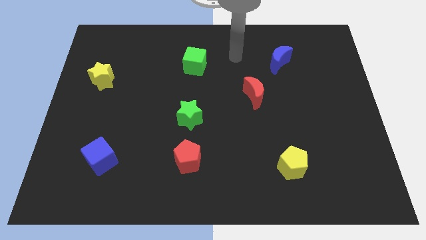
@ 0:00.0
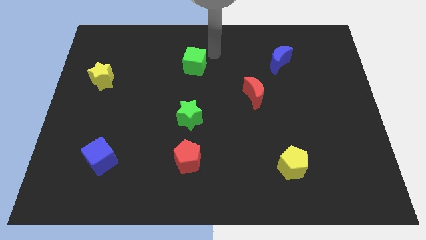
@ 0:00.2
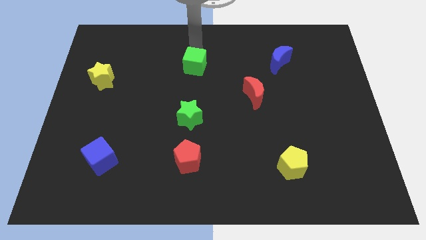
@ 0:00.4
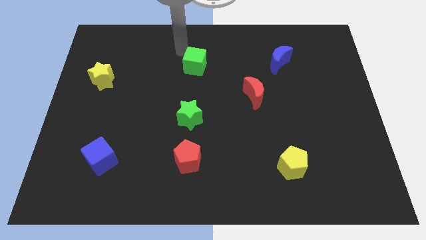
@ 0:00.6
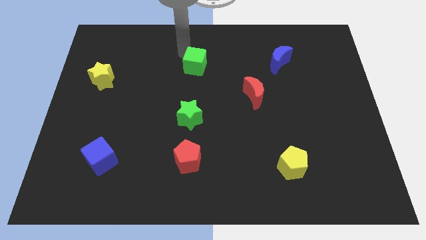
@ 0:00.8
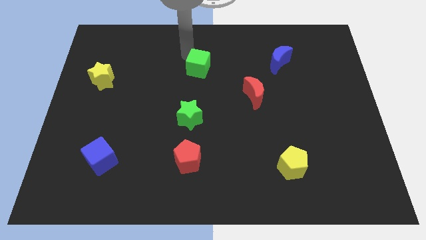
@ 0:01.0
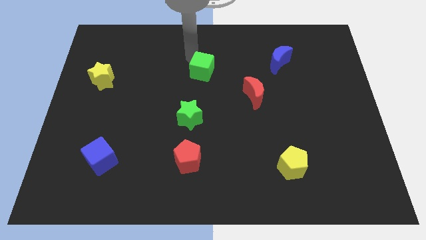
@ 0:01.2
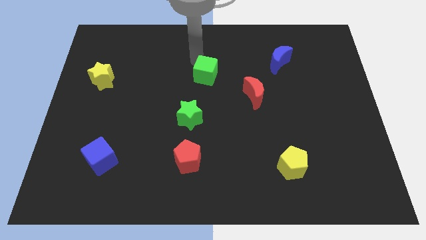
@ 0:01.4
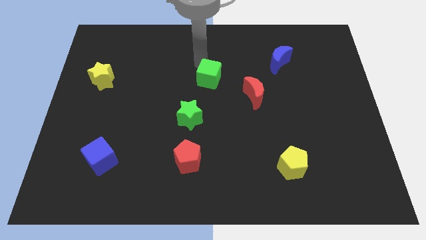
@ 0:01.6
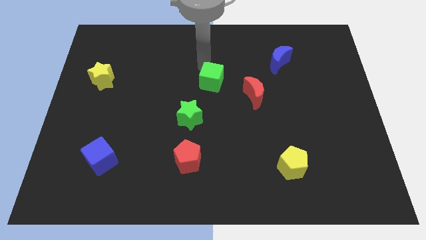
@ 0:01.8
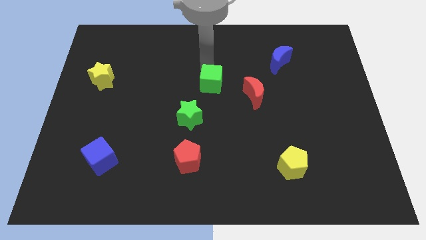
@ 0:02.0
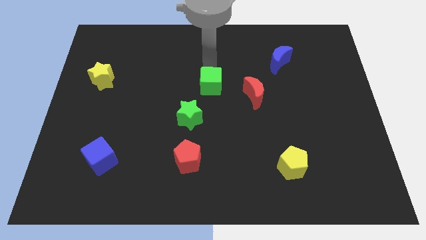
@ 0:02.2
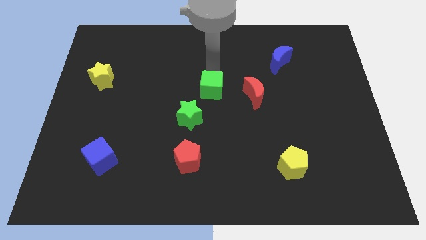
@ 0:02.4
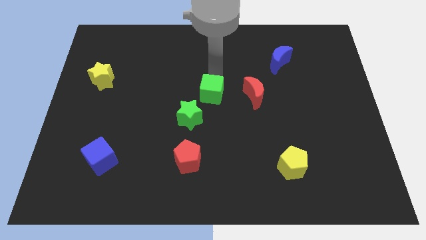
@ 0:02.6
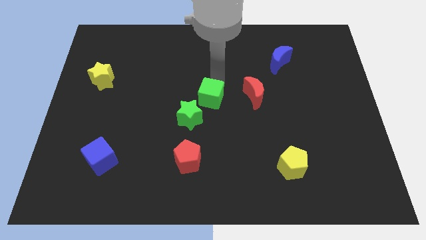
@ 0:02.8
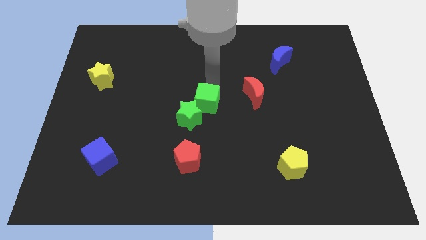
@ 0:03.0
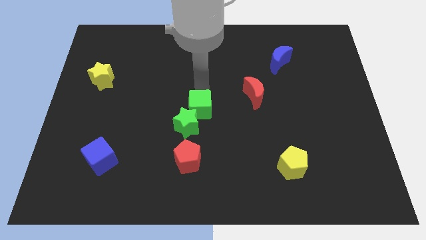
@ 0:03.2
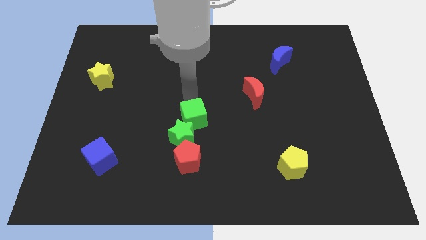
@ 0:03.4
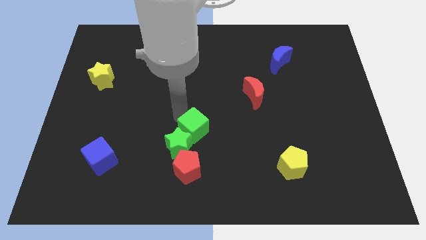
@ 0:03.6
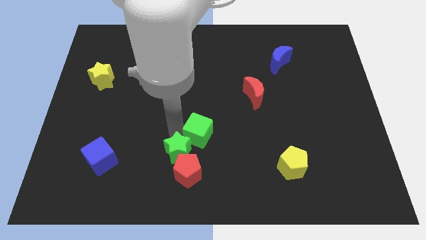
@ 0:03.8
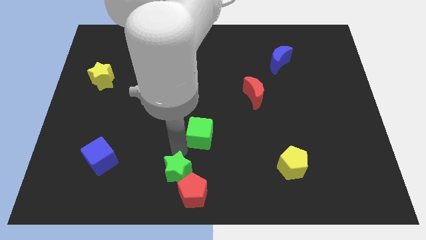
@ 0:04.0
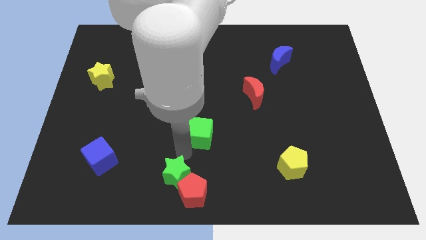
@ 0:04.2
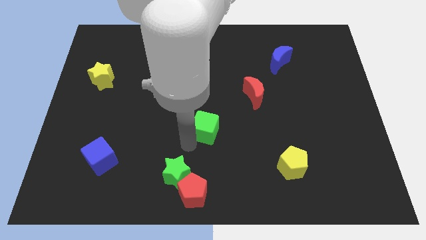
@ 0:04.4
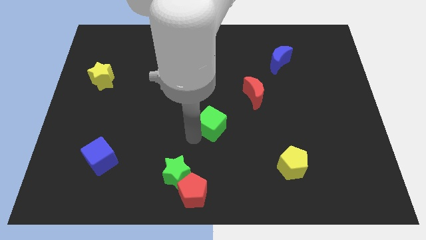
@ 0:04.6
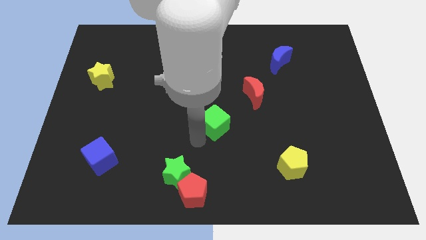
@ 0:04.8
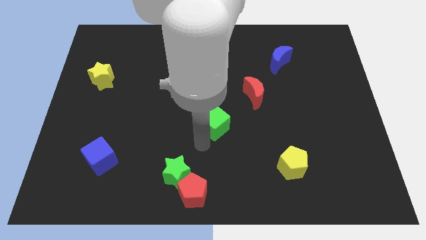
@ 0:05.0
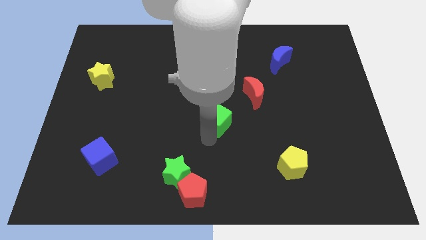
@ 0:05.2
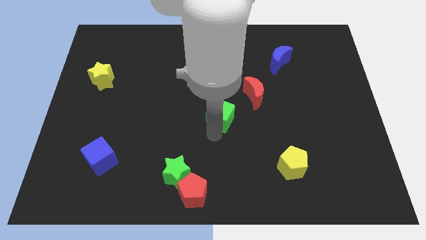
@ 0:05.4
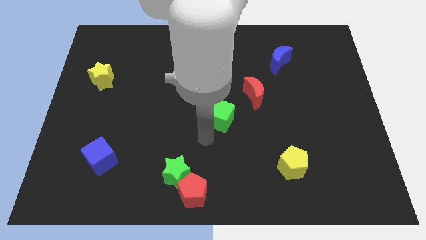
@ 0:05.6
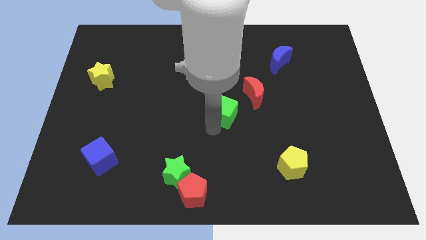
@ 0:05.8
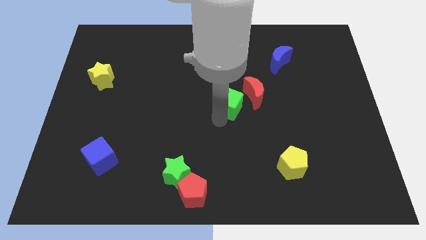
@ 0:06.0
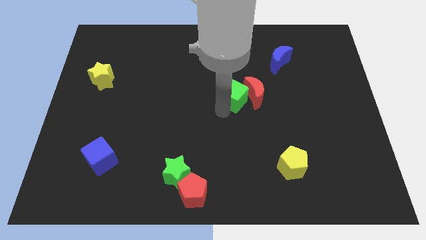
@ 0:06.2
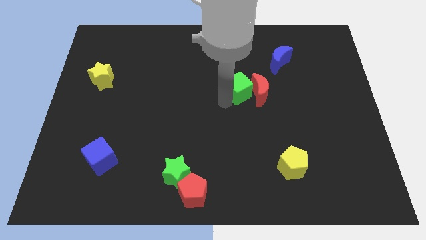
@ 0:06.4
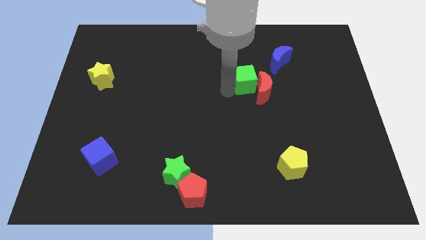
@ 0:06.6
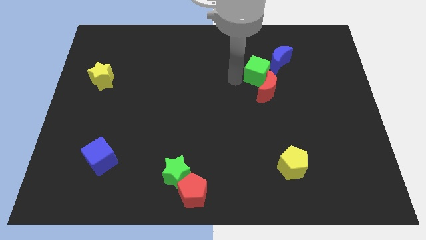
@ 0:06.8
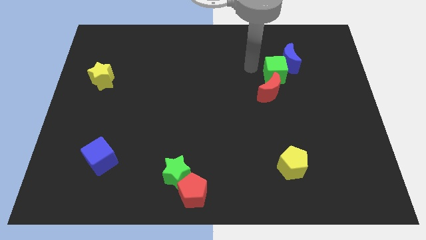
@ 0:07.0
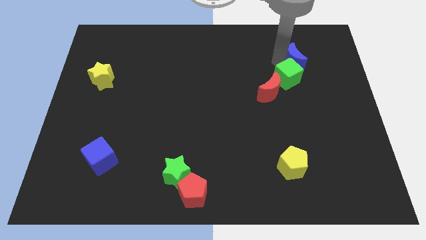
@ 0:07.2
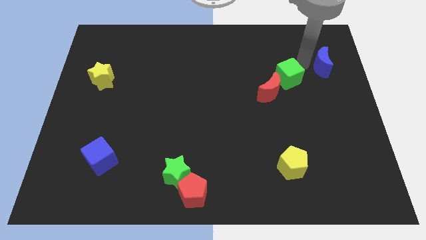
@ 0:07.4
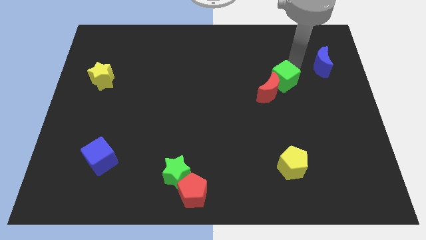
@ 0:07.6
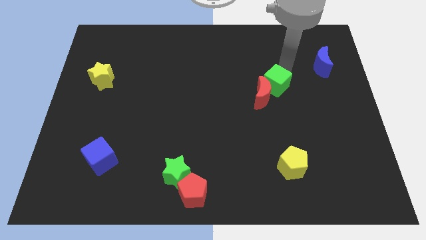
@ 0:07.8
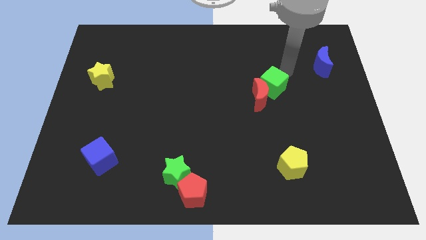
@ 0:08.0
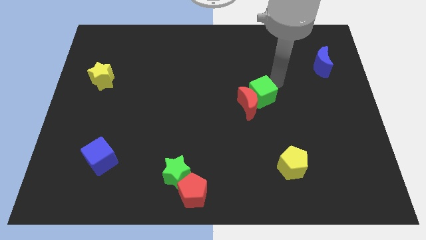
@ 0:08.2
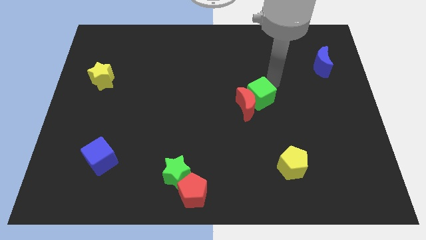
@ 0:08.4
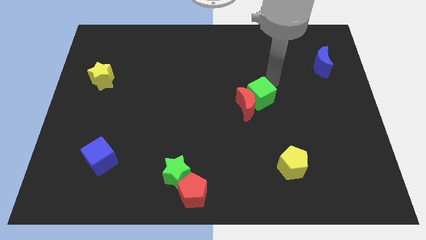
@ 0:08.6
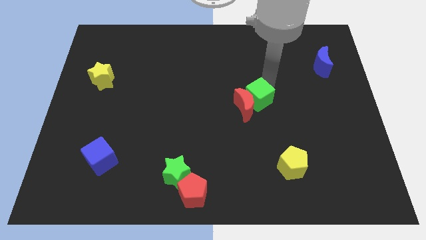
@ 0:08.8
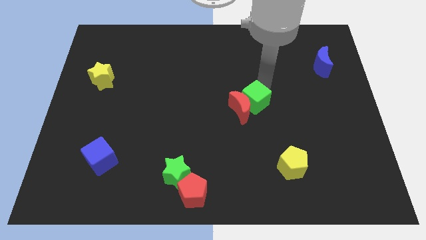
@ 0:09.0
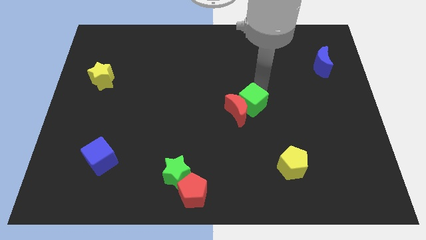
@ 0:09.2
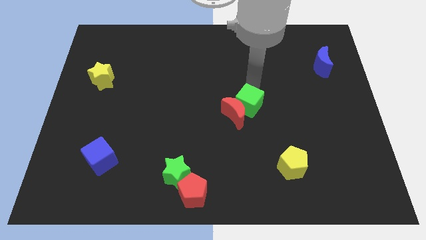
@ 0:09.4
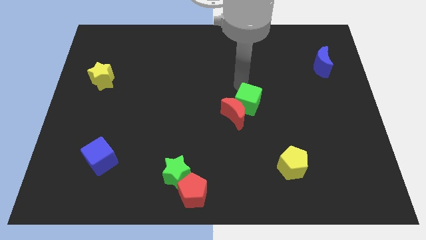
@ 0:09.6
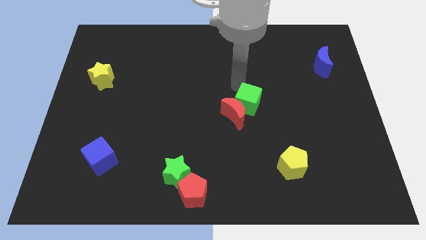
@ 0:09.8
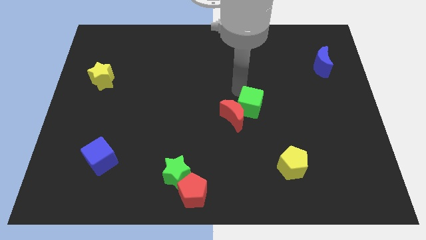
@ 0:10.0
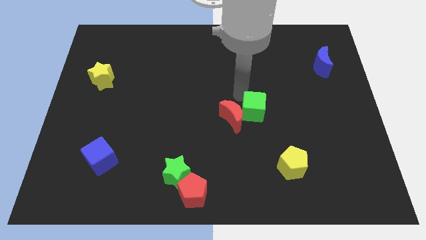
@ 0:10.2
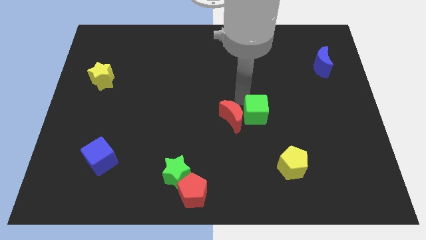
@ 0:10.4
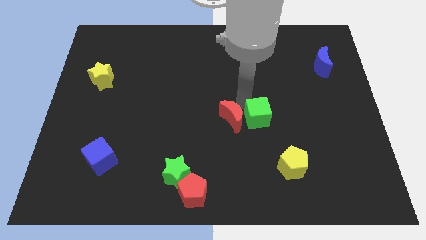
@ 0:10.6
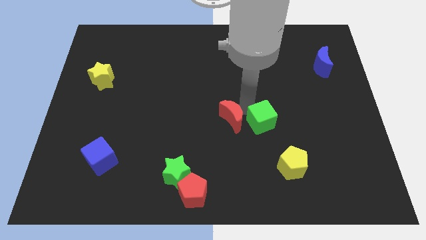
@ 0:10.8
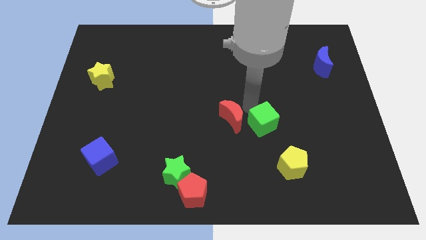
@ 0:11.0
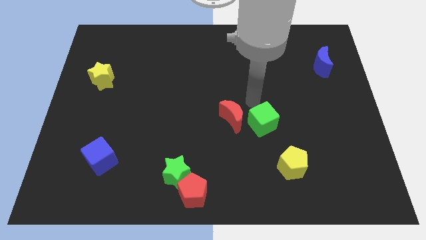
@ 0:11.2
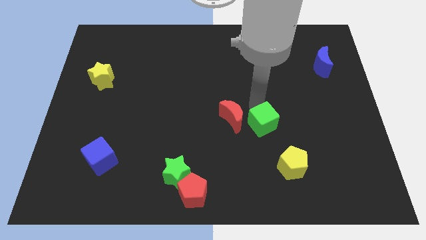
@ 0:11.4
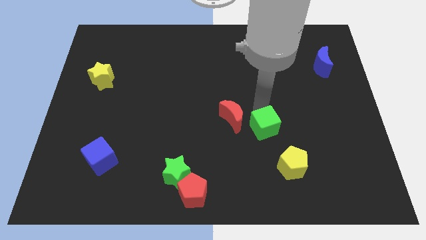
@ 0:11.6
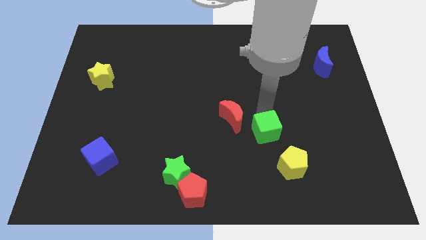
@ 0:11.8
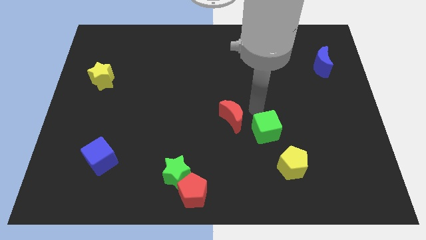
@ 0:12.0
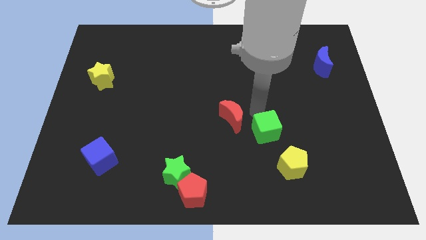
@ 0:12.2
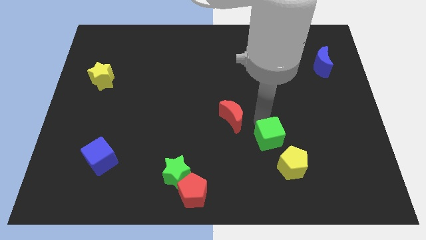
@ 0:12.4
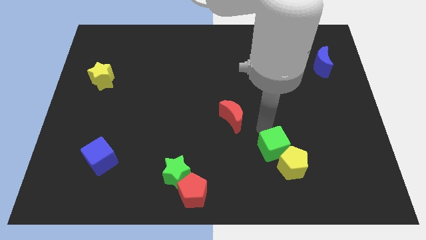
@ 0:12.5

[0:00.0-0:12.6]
move the green cube to the yellow pentagon

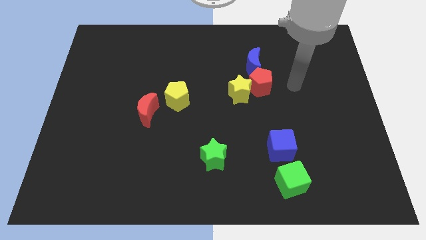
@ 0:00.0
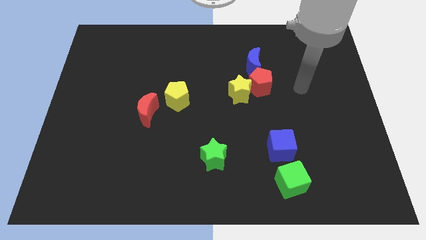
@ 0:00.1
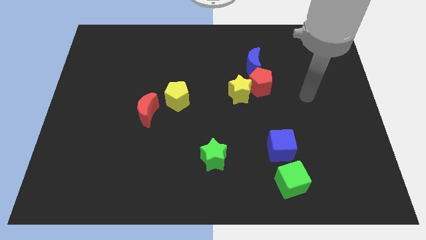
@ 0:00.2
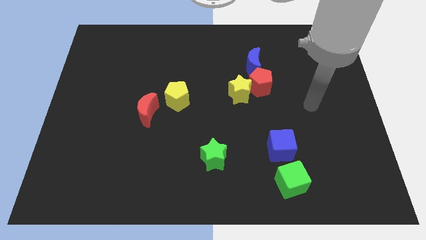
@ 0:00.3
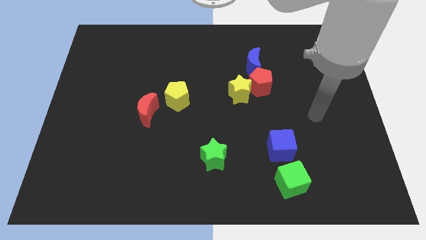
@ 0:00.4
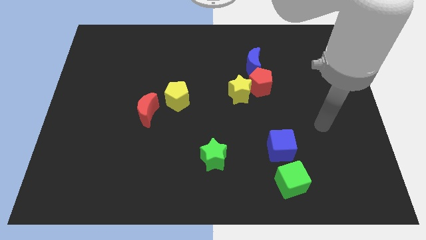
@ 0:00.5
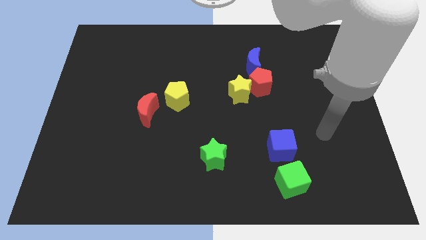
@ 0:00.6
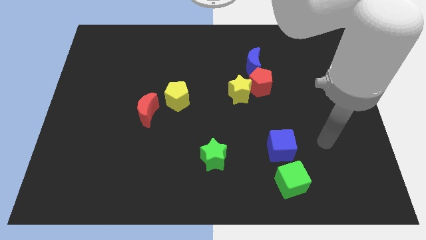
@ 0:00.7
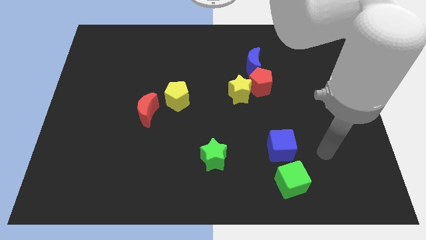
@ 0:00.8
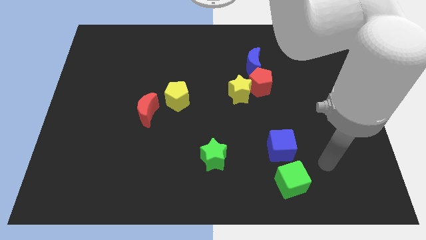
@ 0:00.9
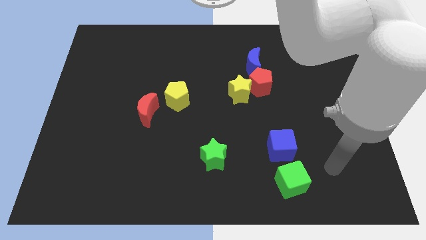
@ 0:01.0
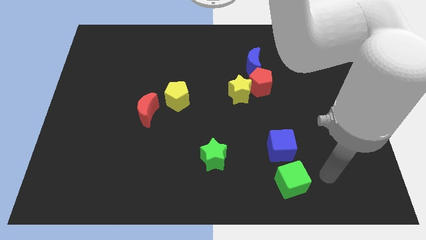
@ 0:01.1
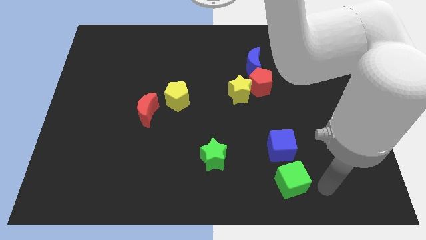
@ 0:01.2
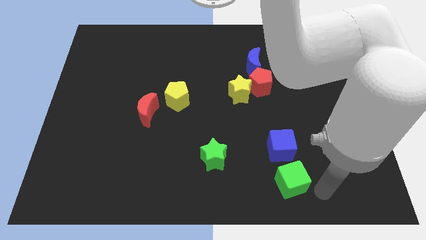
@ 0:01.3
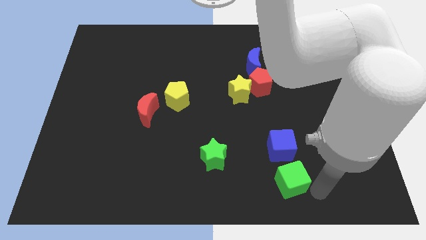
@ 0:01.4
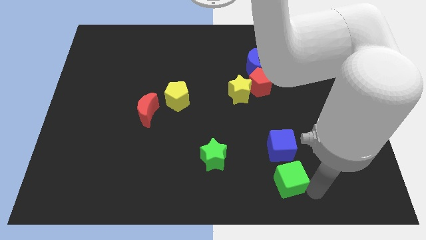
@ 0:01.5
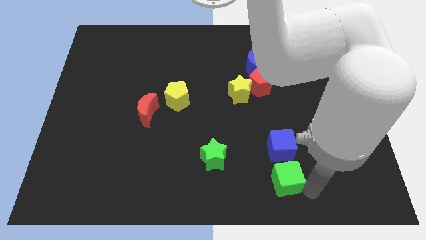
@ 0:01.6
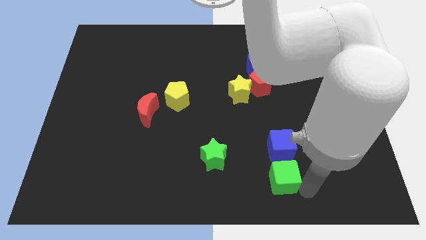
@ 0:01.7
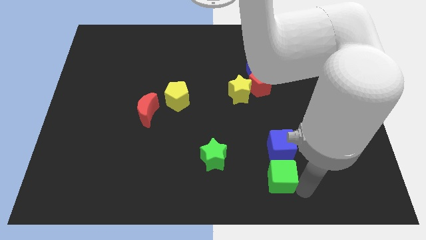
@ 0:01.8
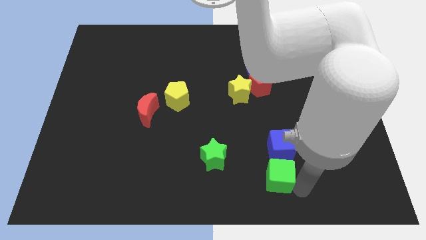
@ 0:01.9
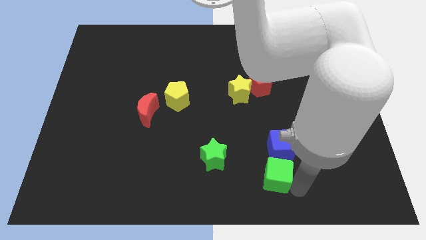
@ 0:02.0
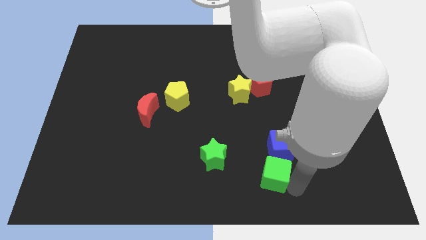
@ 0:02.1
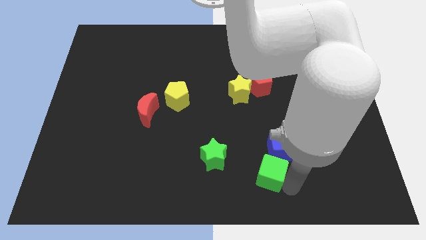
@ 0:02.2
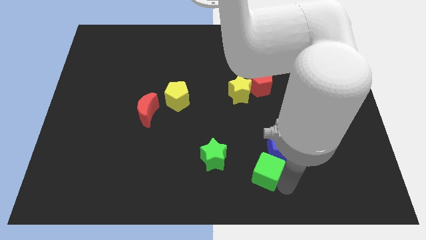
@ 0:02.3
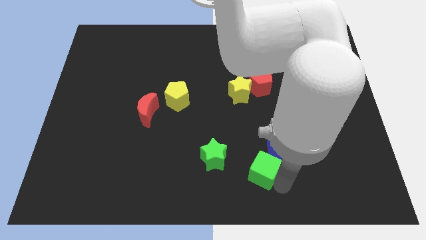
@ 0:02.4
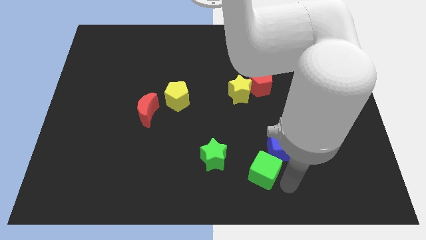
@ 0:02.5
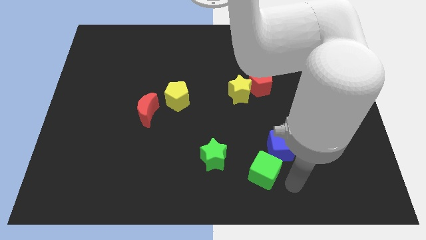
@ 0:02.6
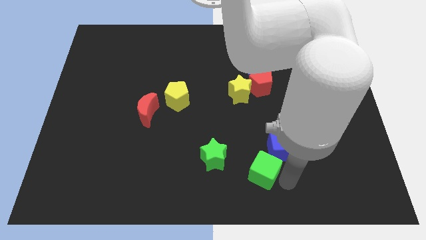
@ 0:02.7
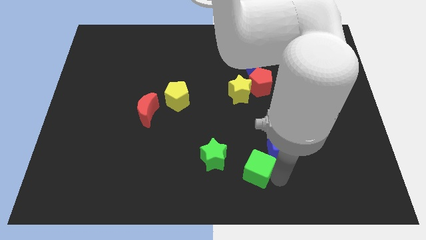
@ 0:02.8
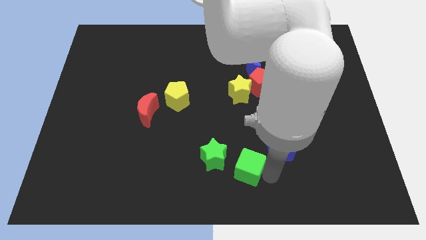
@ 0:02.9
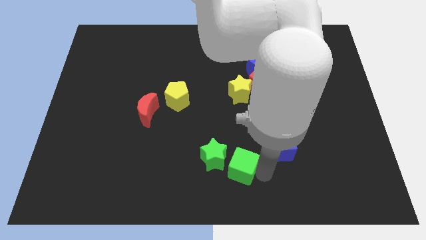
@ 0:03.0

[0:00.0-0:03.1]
put the green cube towards the green star
